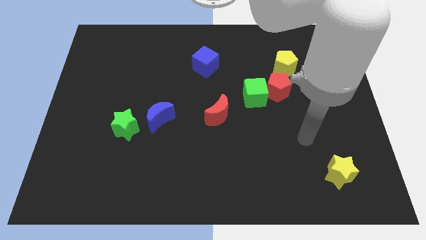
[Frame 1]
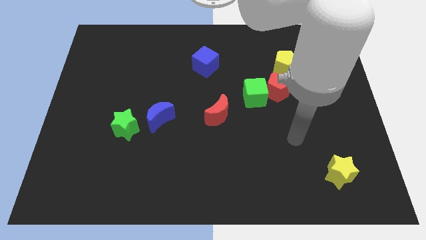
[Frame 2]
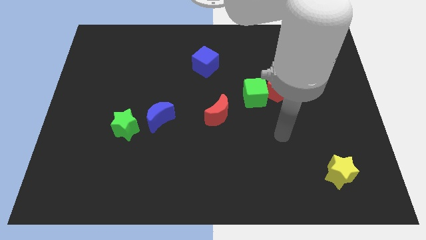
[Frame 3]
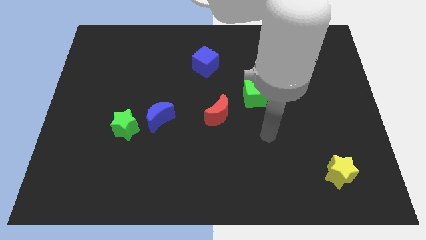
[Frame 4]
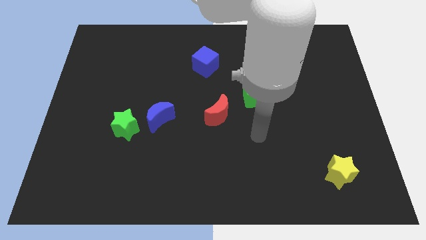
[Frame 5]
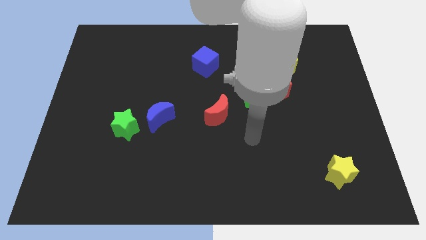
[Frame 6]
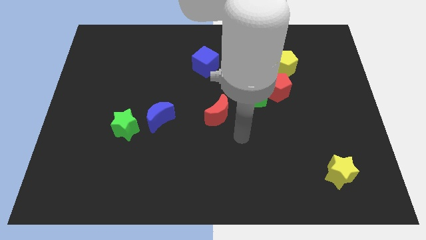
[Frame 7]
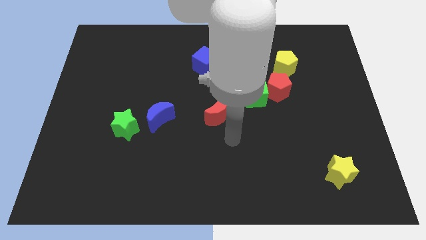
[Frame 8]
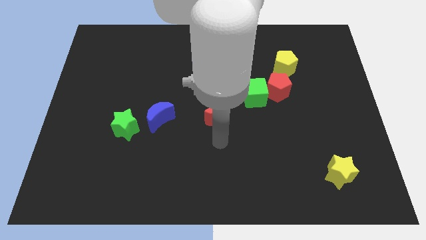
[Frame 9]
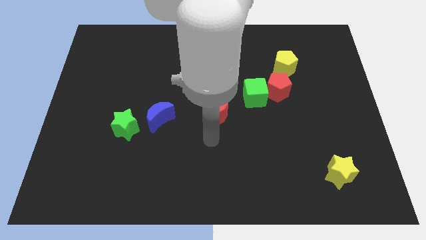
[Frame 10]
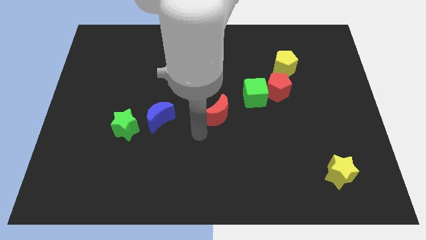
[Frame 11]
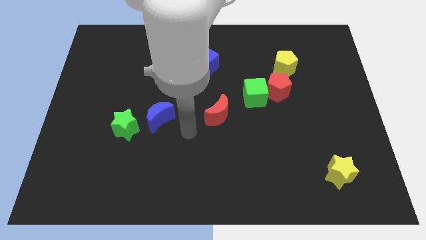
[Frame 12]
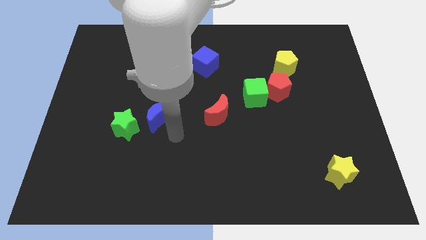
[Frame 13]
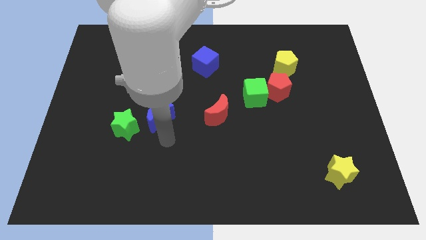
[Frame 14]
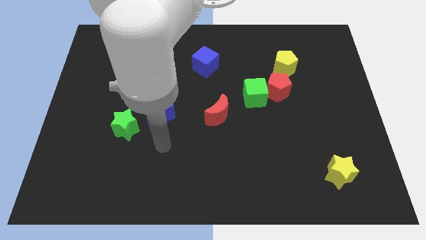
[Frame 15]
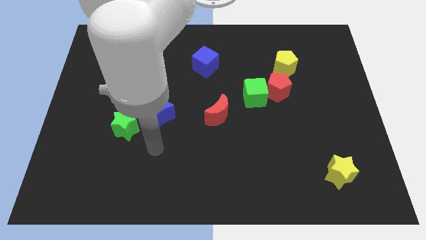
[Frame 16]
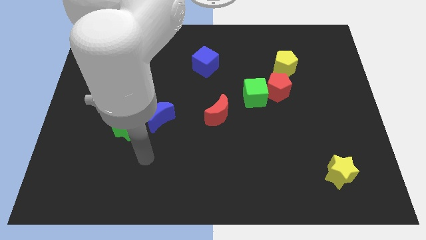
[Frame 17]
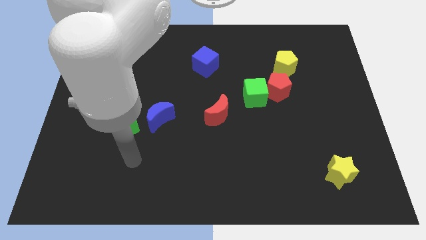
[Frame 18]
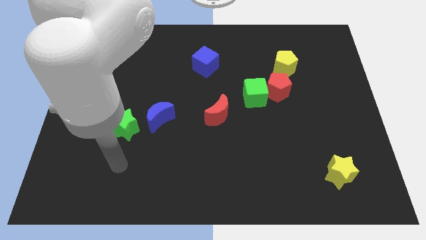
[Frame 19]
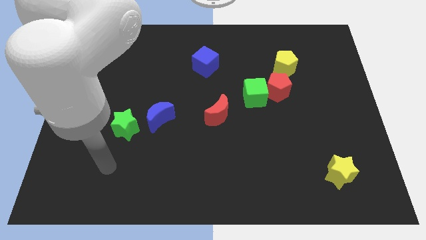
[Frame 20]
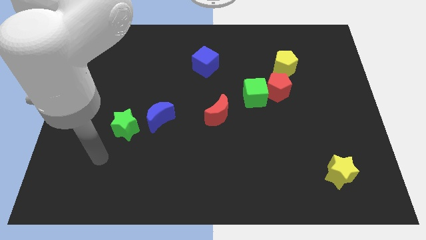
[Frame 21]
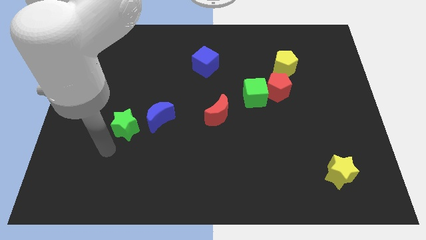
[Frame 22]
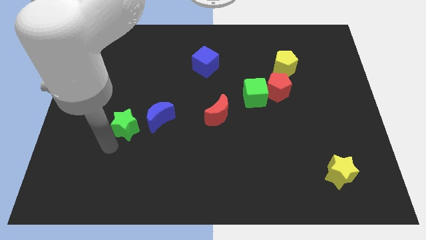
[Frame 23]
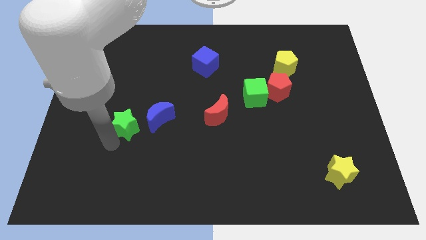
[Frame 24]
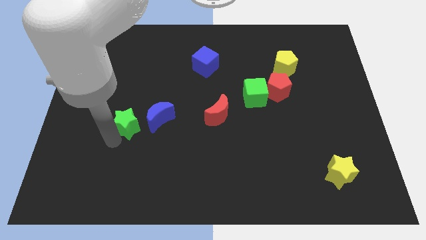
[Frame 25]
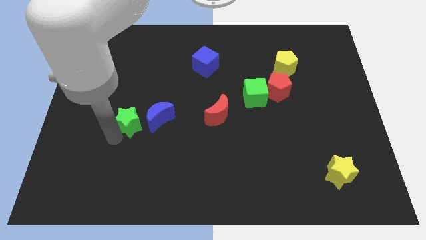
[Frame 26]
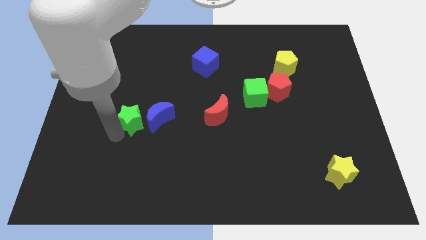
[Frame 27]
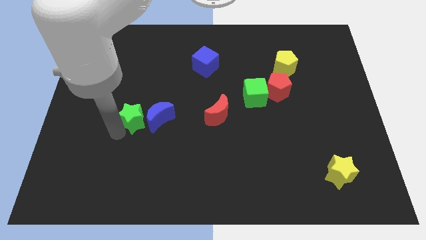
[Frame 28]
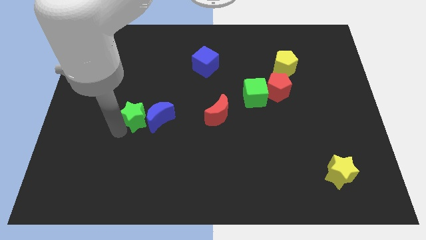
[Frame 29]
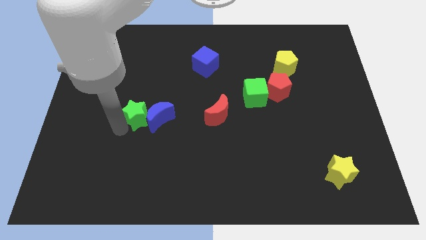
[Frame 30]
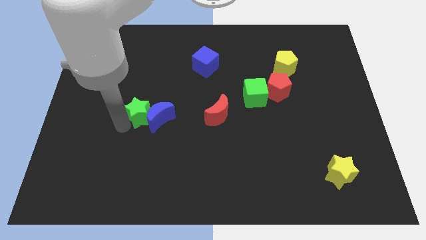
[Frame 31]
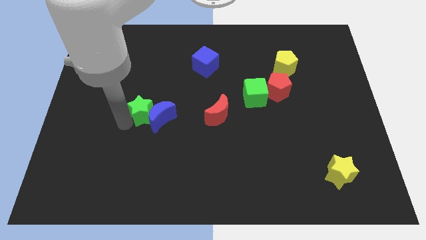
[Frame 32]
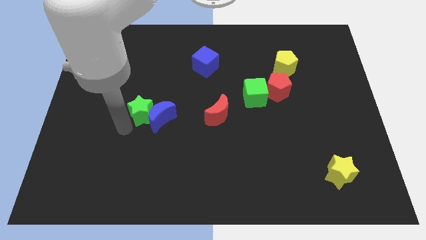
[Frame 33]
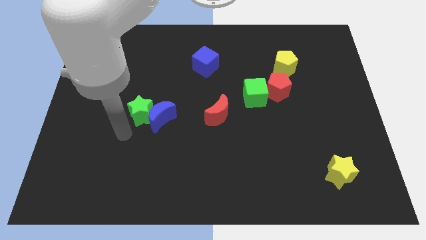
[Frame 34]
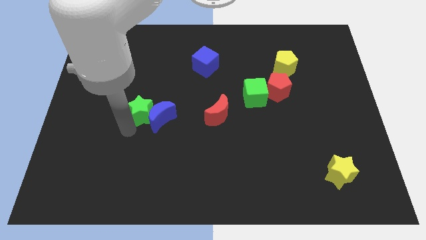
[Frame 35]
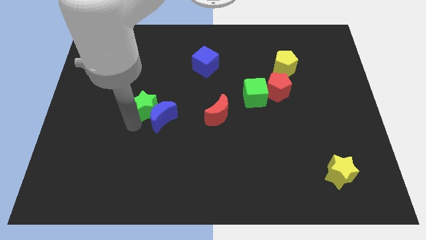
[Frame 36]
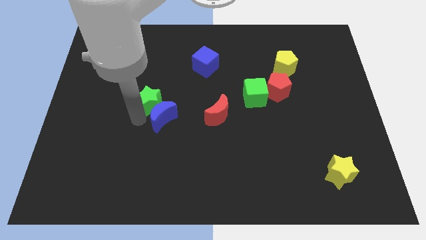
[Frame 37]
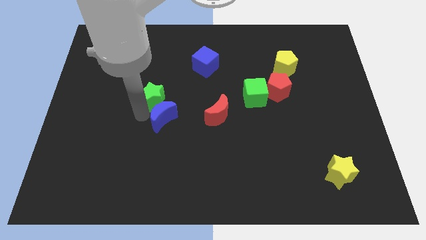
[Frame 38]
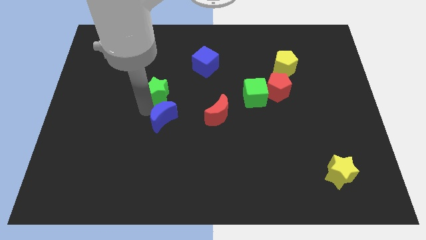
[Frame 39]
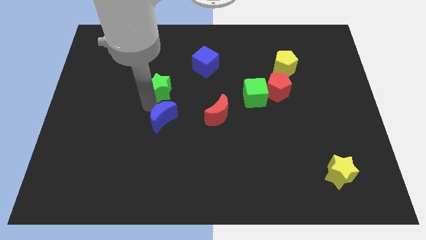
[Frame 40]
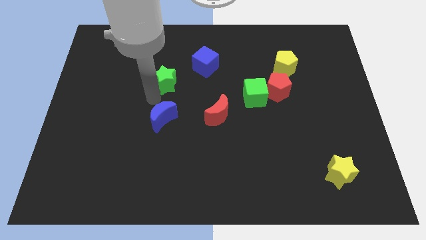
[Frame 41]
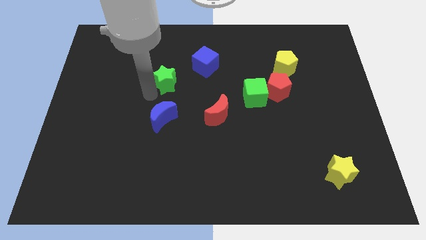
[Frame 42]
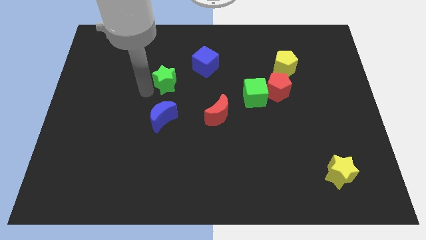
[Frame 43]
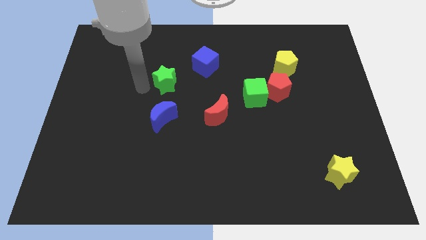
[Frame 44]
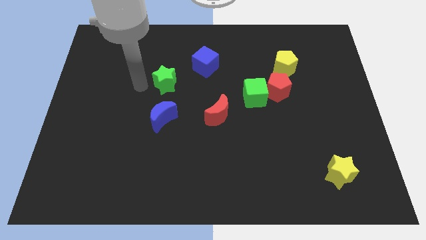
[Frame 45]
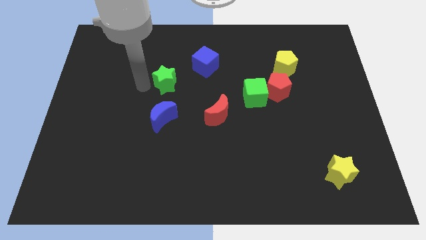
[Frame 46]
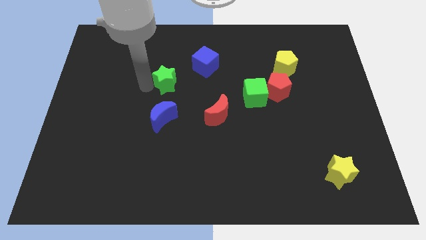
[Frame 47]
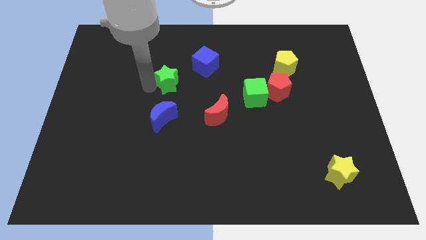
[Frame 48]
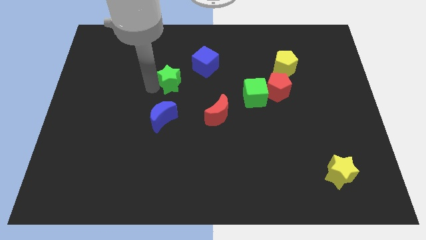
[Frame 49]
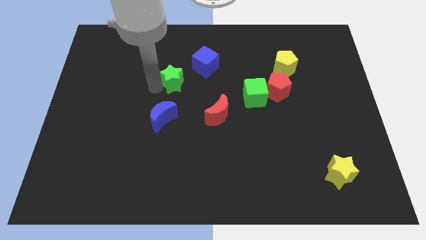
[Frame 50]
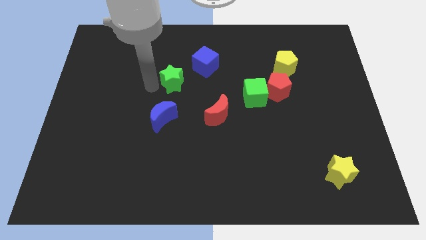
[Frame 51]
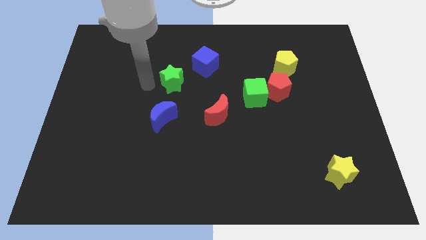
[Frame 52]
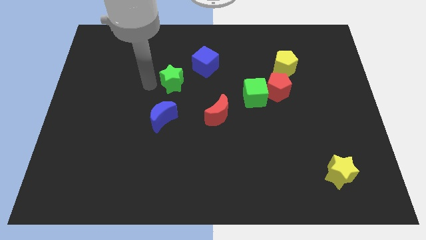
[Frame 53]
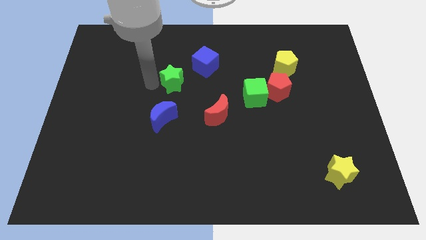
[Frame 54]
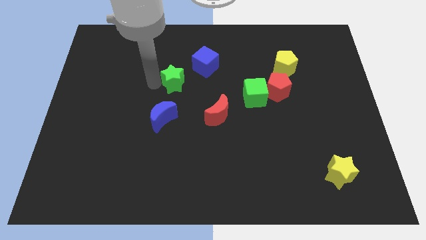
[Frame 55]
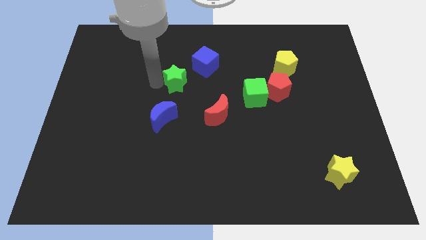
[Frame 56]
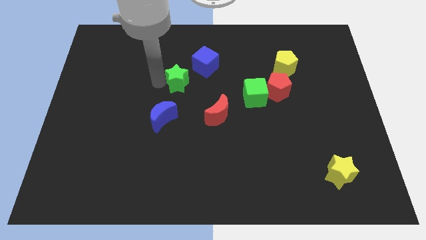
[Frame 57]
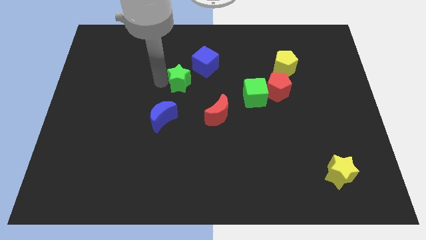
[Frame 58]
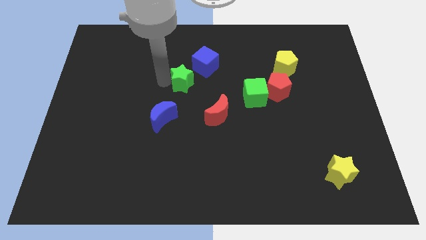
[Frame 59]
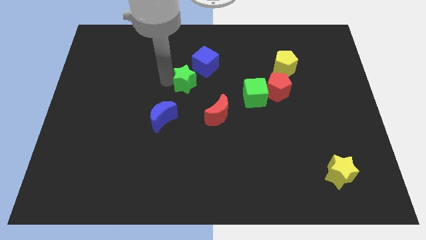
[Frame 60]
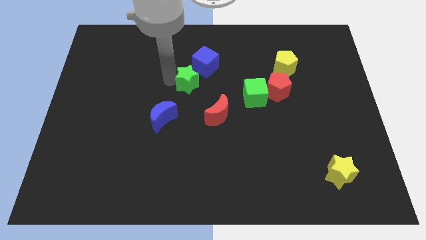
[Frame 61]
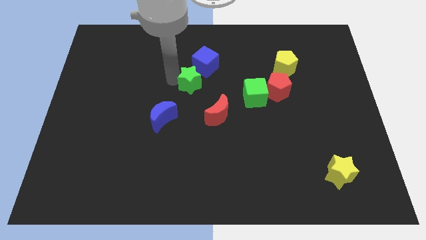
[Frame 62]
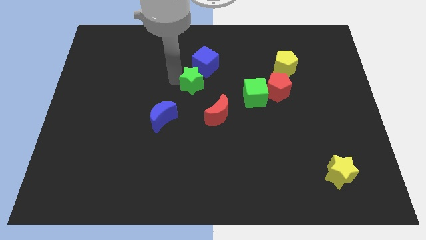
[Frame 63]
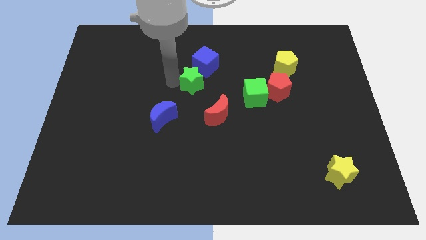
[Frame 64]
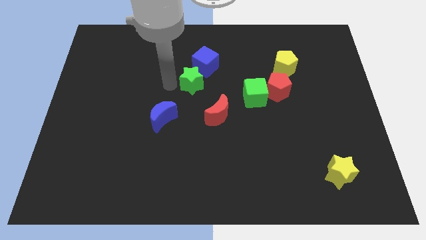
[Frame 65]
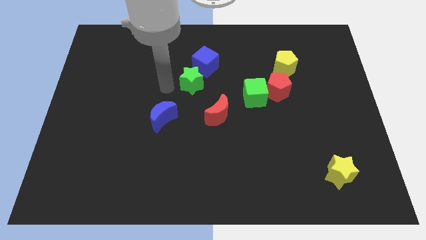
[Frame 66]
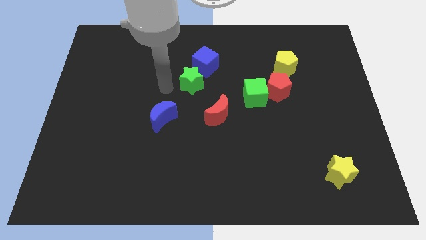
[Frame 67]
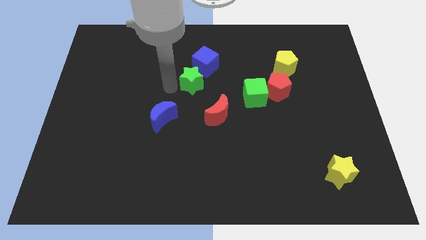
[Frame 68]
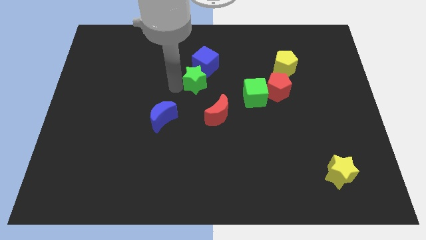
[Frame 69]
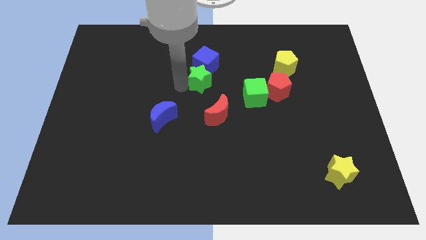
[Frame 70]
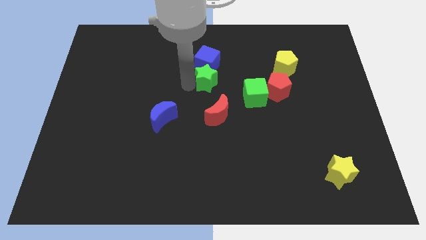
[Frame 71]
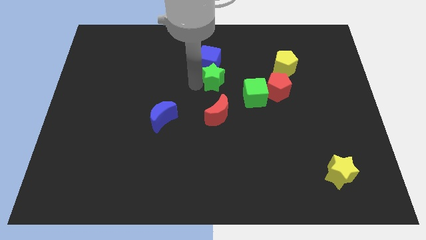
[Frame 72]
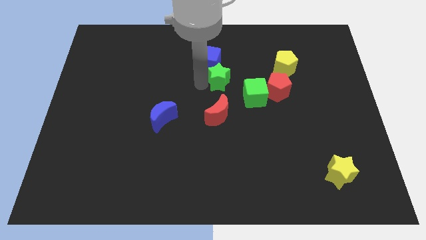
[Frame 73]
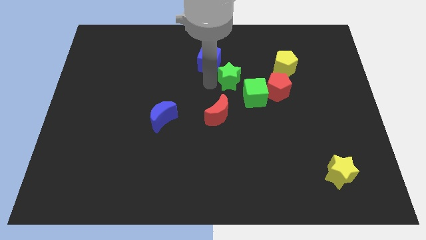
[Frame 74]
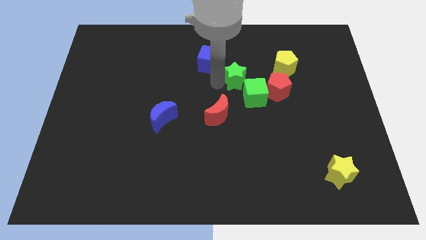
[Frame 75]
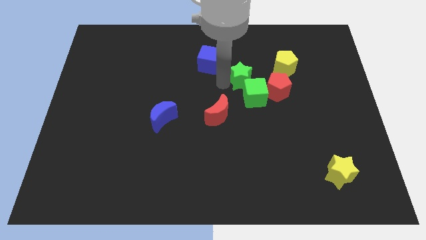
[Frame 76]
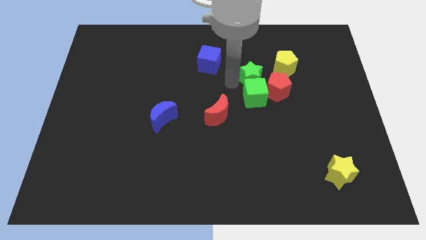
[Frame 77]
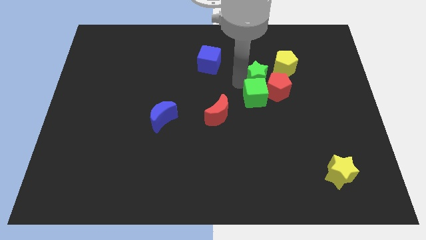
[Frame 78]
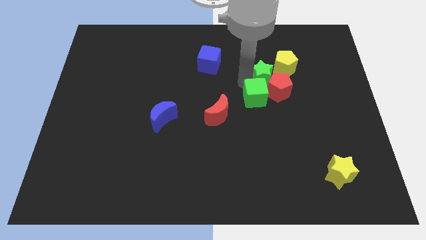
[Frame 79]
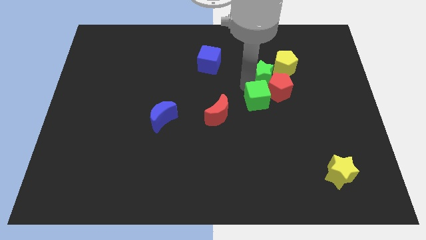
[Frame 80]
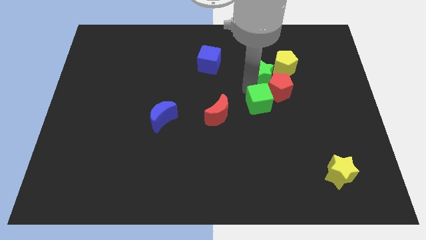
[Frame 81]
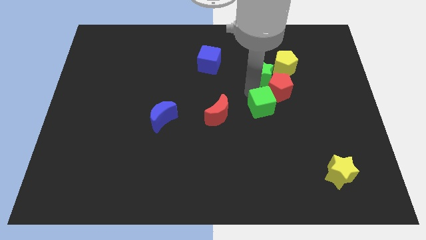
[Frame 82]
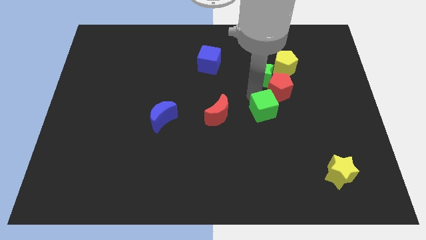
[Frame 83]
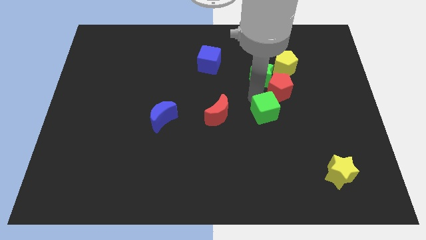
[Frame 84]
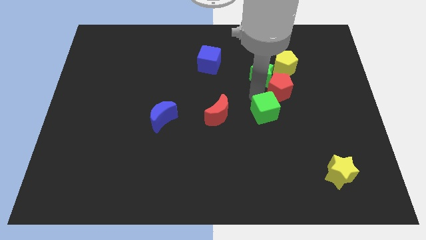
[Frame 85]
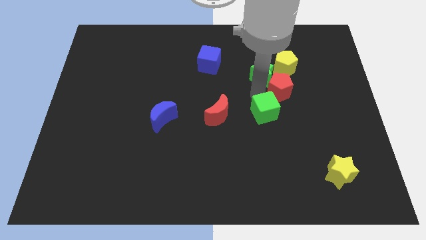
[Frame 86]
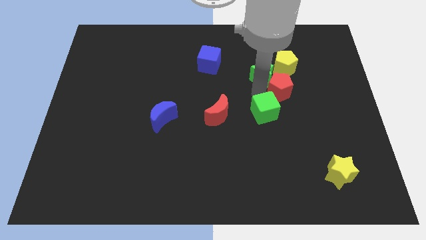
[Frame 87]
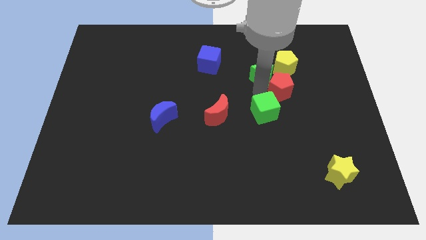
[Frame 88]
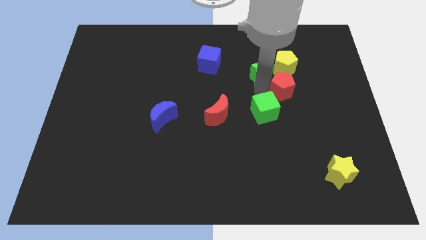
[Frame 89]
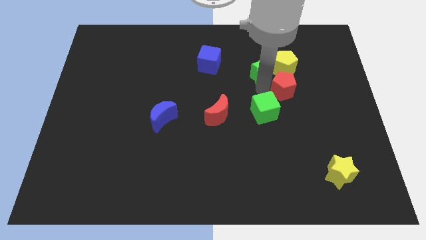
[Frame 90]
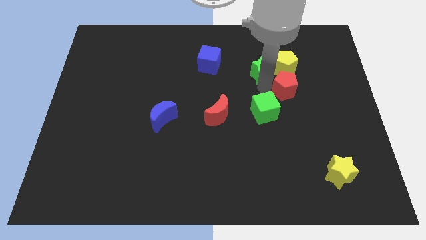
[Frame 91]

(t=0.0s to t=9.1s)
slide the green star close to the yellow pentagon
